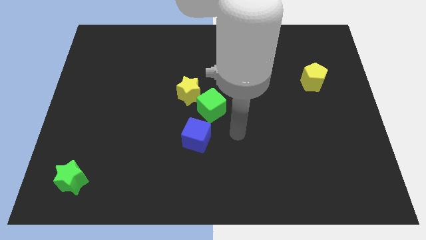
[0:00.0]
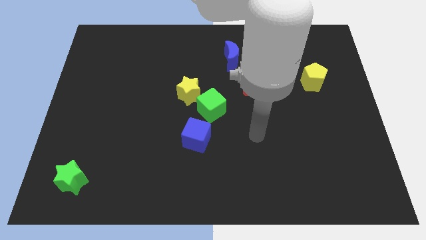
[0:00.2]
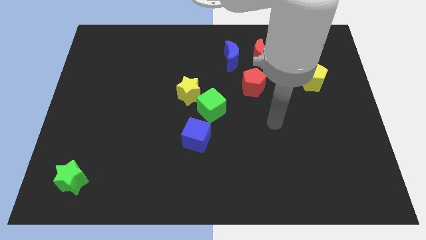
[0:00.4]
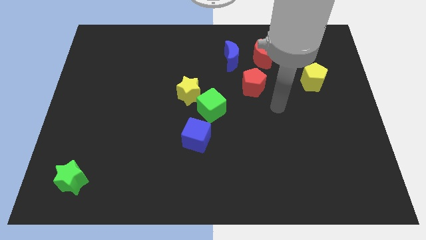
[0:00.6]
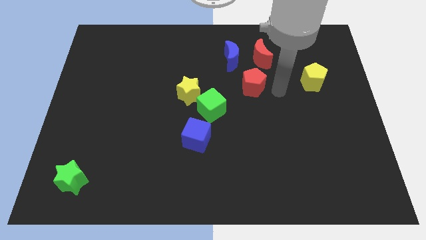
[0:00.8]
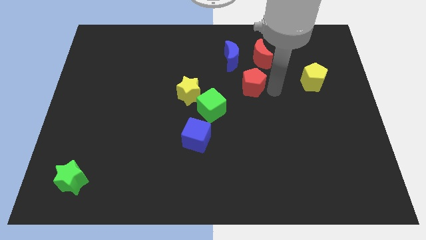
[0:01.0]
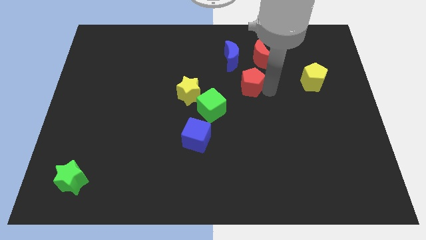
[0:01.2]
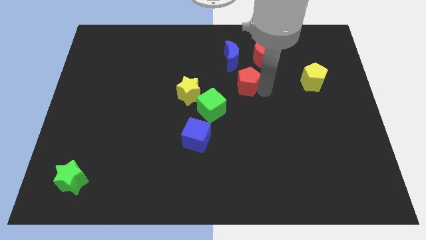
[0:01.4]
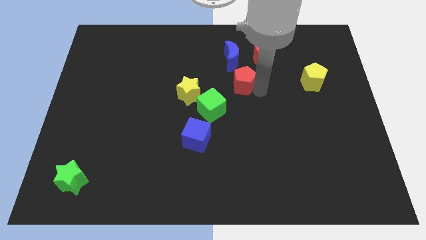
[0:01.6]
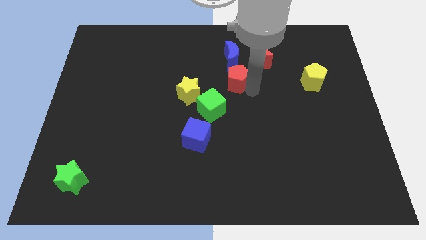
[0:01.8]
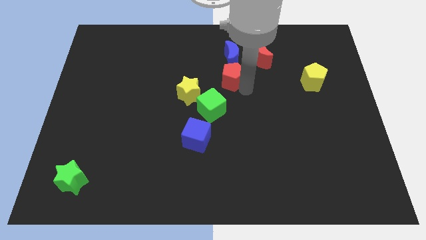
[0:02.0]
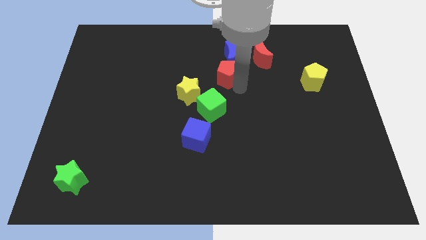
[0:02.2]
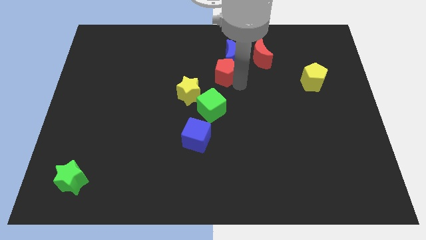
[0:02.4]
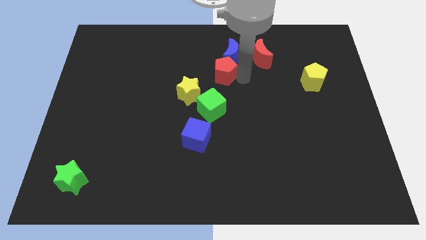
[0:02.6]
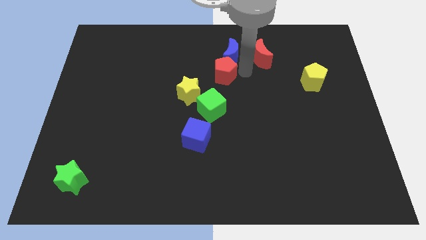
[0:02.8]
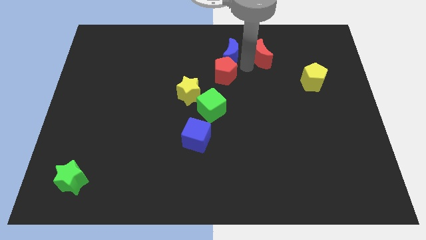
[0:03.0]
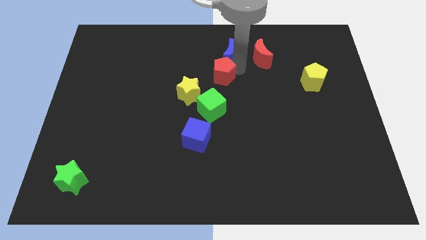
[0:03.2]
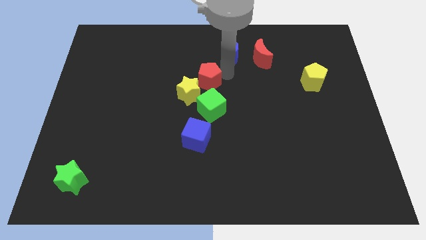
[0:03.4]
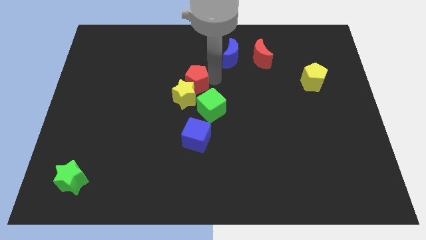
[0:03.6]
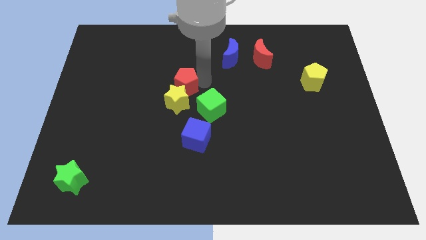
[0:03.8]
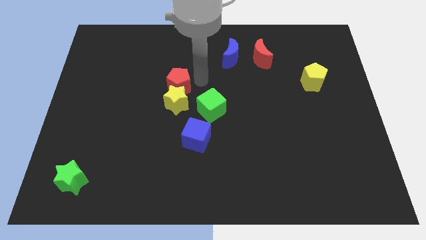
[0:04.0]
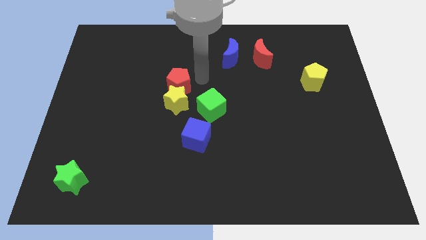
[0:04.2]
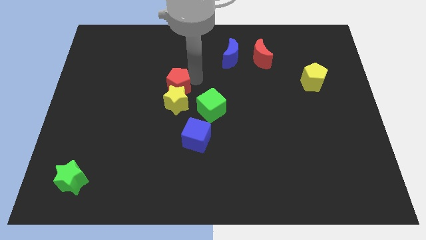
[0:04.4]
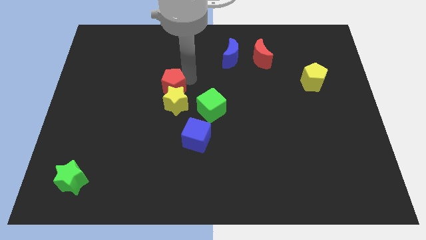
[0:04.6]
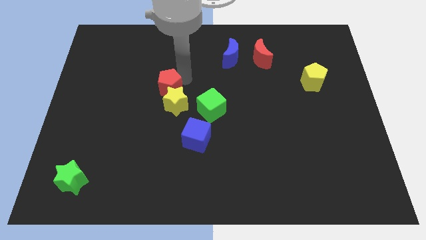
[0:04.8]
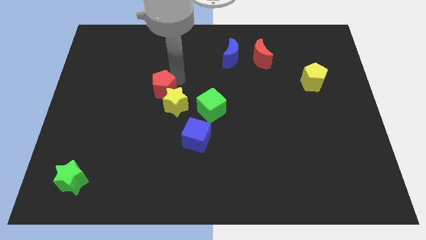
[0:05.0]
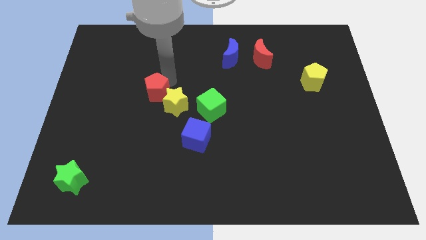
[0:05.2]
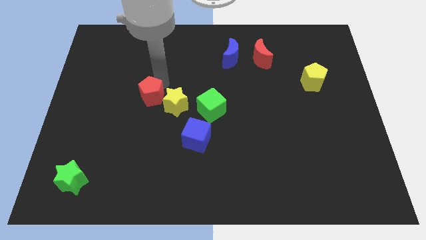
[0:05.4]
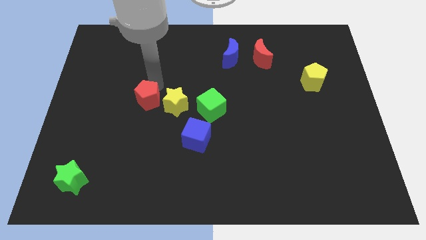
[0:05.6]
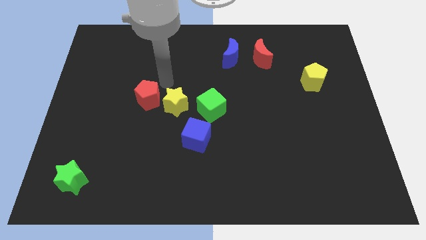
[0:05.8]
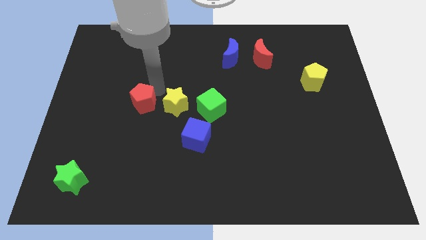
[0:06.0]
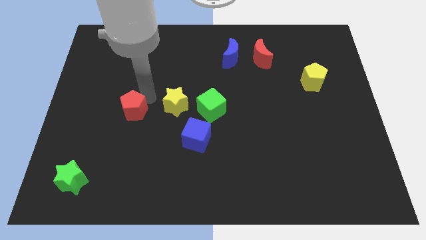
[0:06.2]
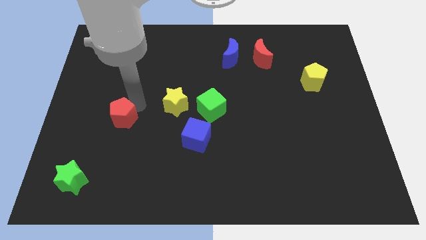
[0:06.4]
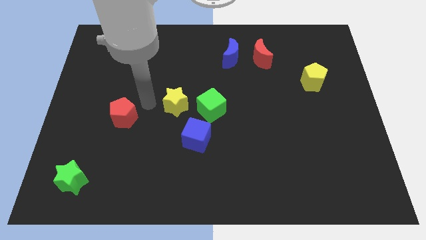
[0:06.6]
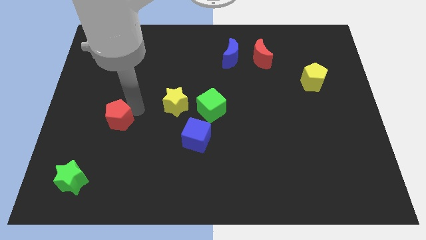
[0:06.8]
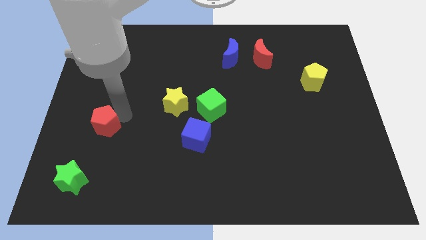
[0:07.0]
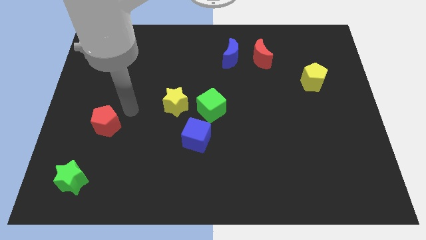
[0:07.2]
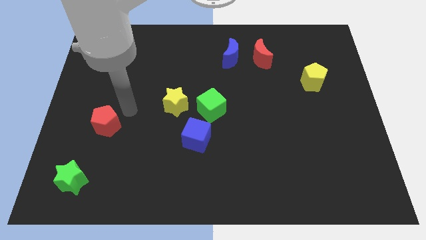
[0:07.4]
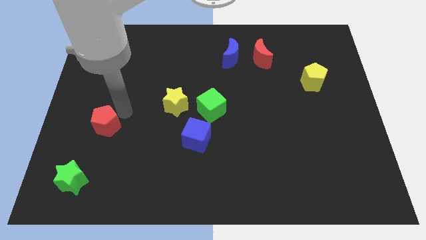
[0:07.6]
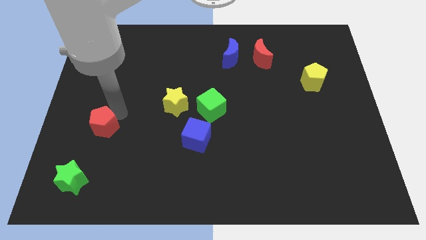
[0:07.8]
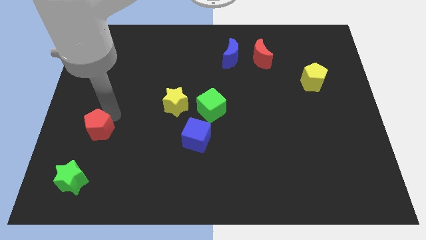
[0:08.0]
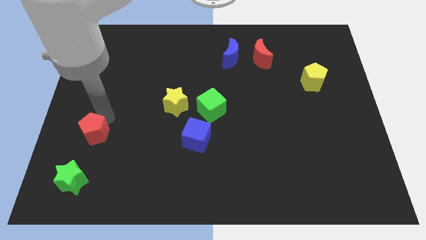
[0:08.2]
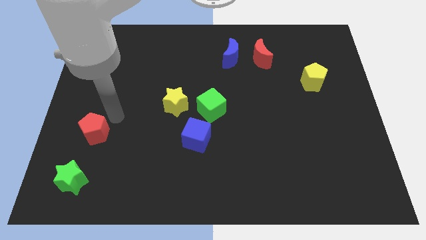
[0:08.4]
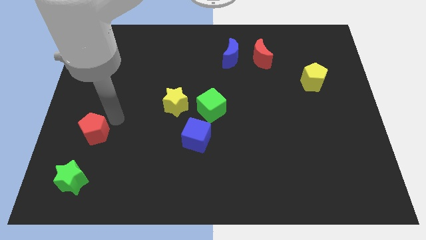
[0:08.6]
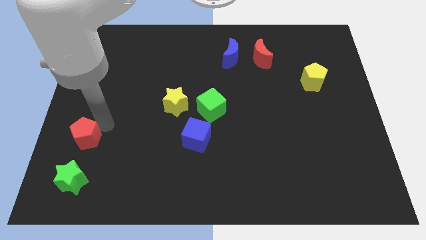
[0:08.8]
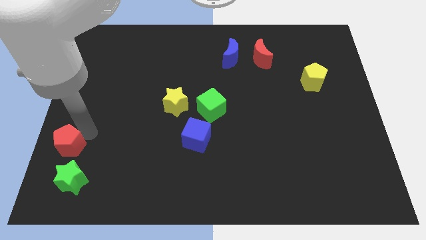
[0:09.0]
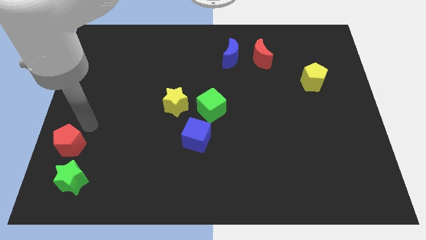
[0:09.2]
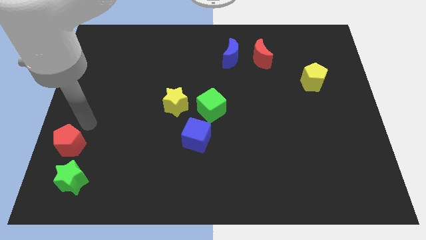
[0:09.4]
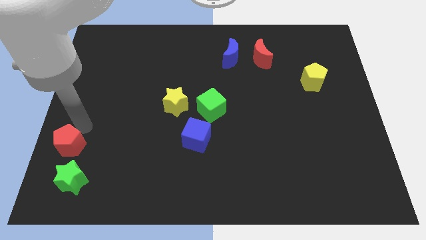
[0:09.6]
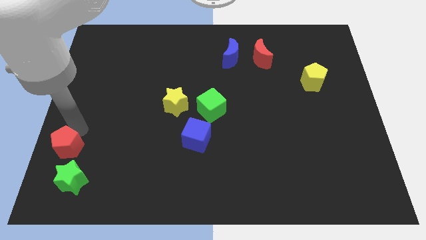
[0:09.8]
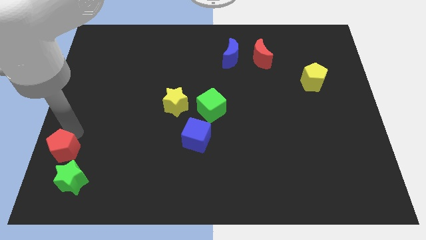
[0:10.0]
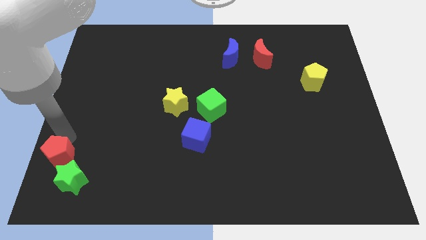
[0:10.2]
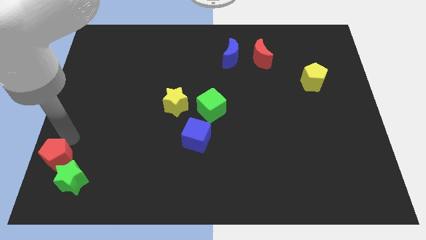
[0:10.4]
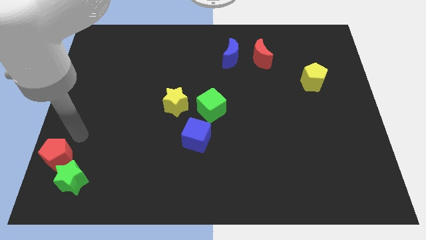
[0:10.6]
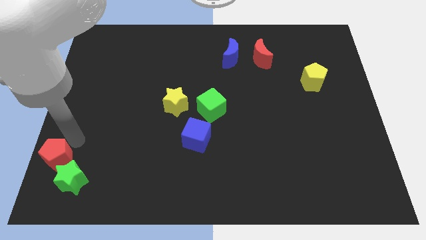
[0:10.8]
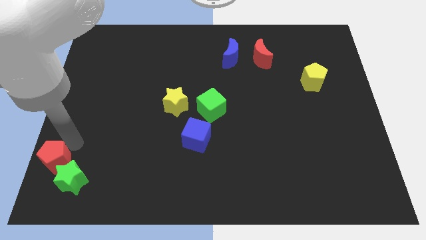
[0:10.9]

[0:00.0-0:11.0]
put the red pentagon to the bottom left

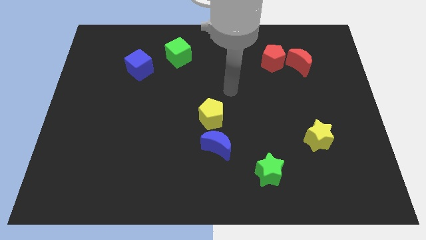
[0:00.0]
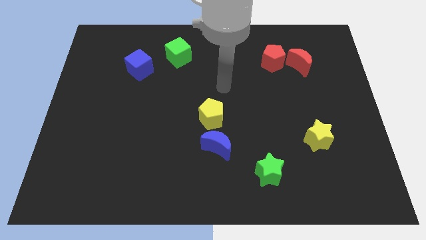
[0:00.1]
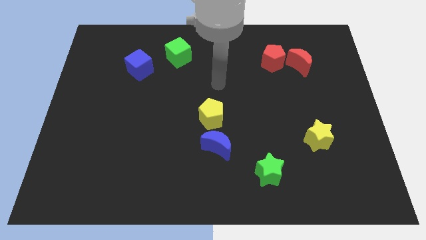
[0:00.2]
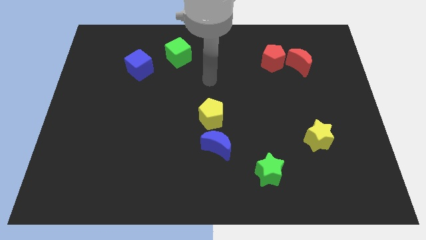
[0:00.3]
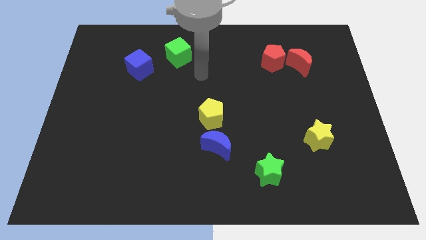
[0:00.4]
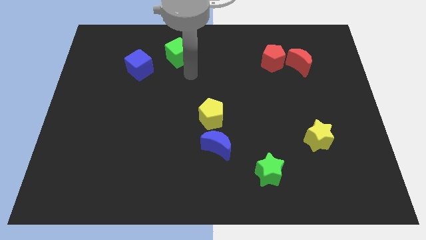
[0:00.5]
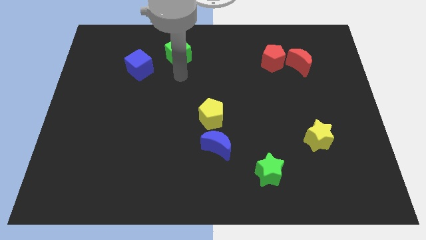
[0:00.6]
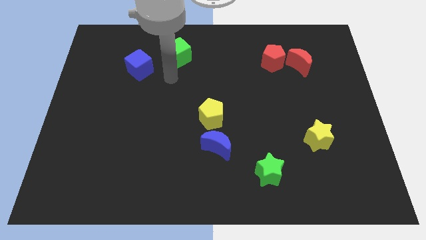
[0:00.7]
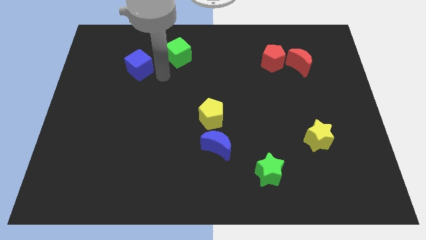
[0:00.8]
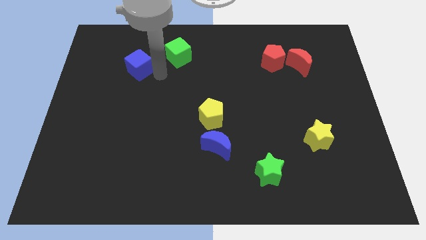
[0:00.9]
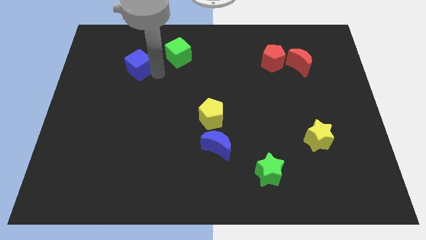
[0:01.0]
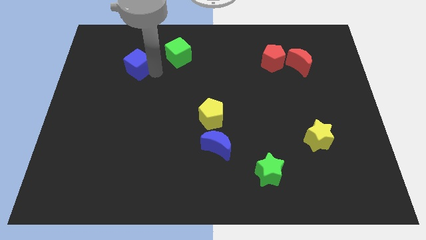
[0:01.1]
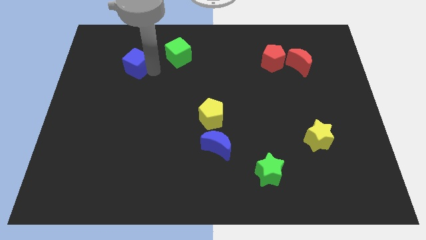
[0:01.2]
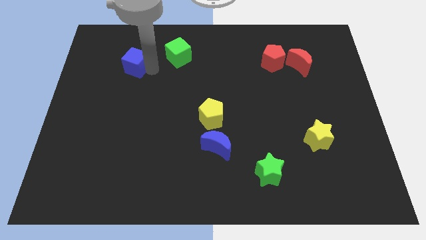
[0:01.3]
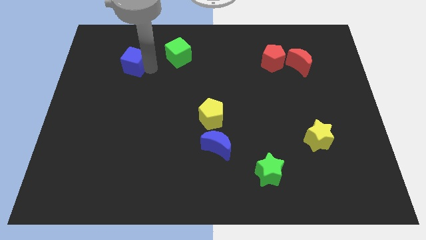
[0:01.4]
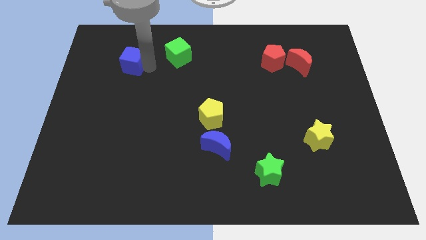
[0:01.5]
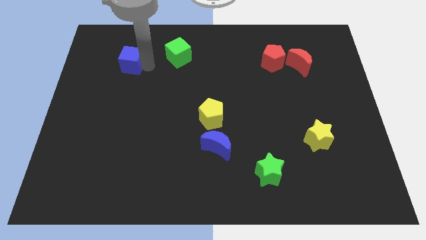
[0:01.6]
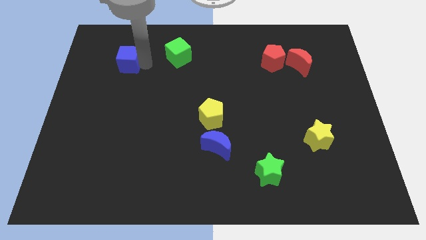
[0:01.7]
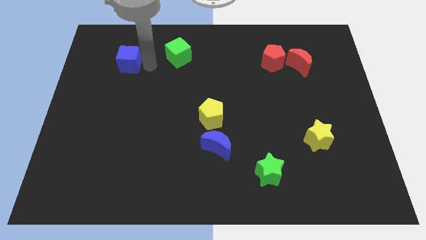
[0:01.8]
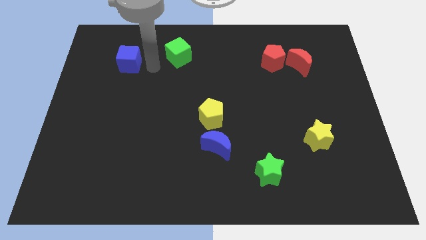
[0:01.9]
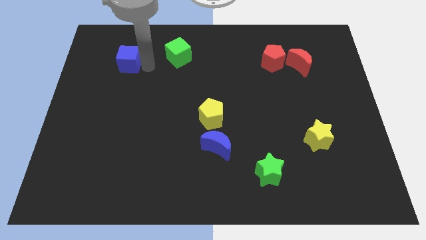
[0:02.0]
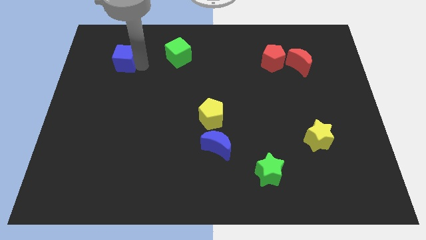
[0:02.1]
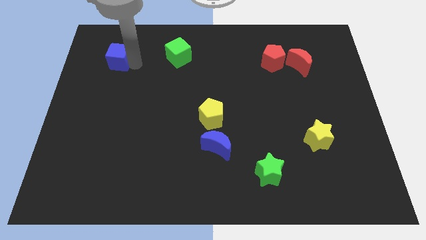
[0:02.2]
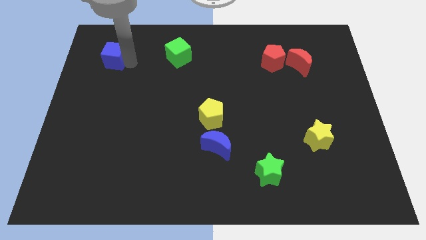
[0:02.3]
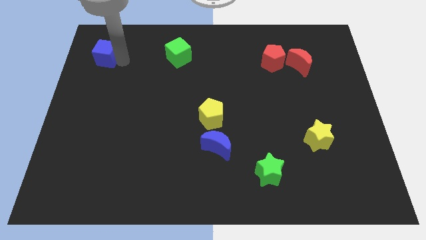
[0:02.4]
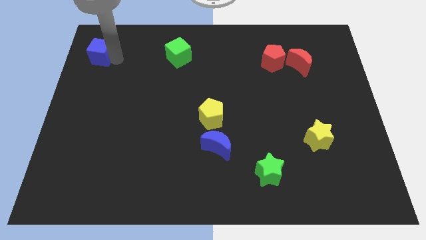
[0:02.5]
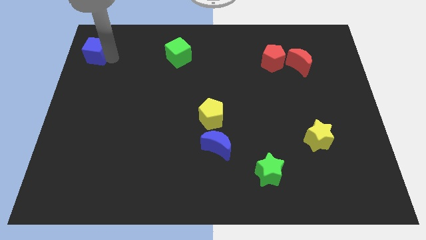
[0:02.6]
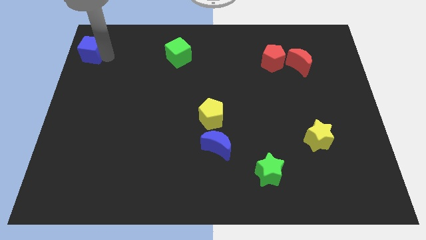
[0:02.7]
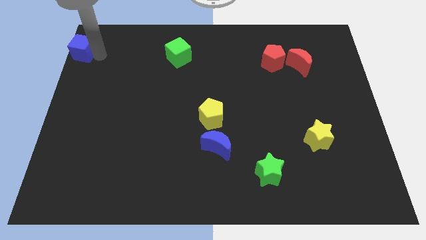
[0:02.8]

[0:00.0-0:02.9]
put the blue cube to the top left of the board
